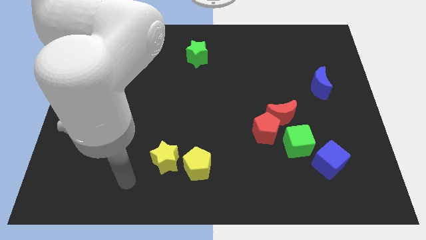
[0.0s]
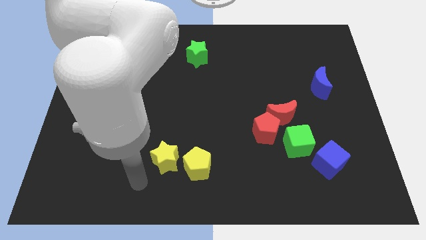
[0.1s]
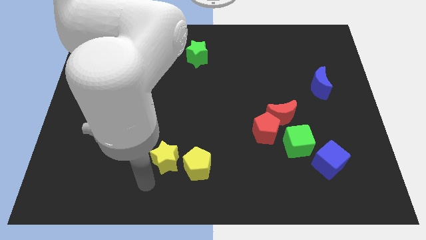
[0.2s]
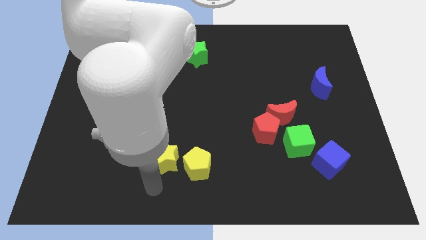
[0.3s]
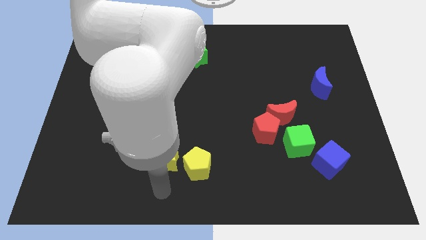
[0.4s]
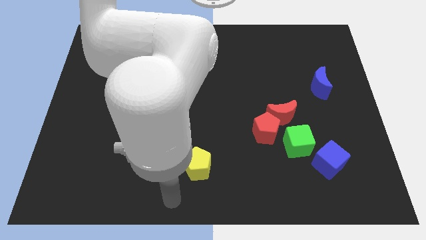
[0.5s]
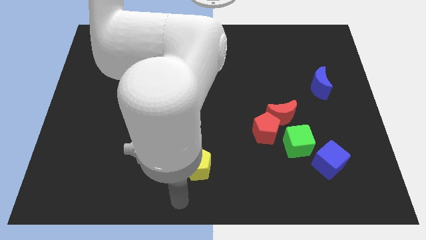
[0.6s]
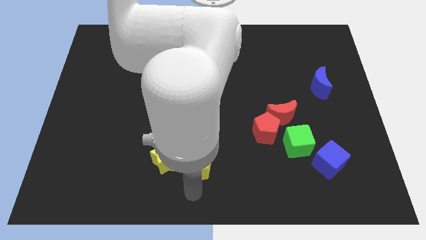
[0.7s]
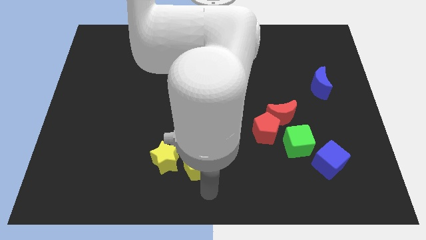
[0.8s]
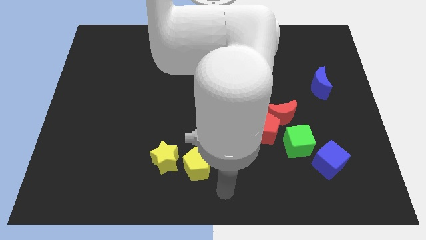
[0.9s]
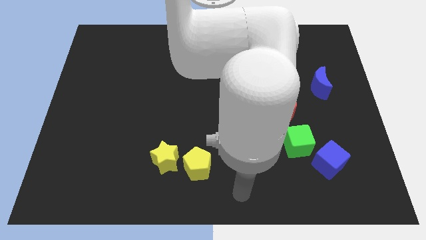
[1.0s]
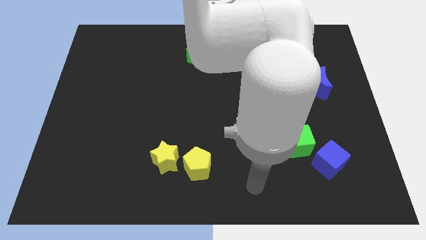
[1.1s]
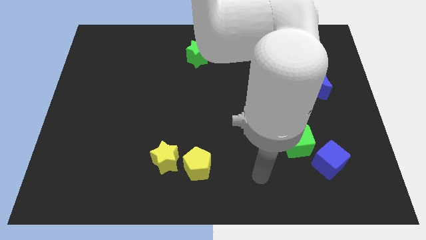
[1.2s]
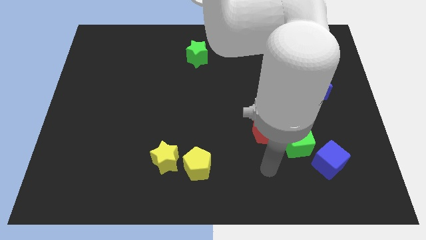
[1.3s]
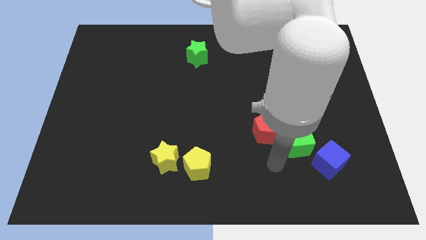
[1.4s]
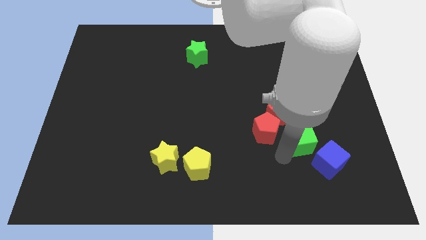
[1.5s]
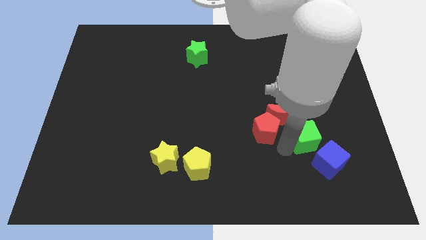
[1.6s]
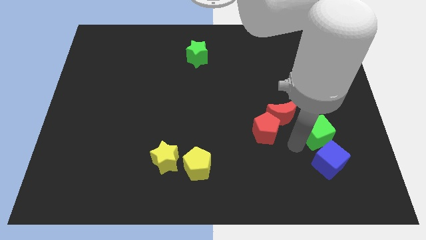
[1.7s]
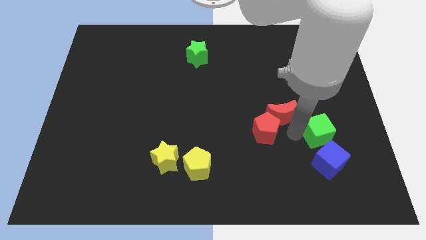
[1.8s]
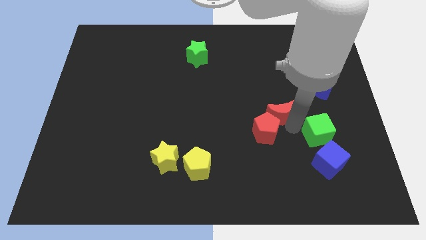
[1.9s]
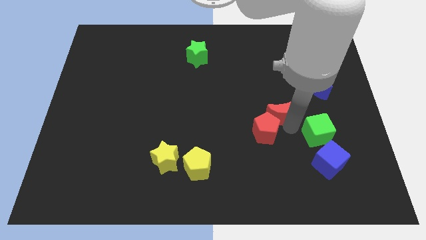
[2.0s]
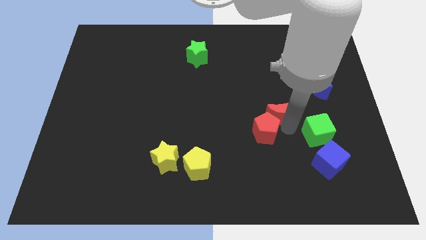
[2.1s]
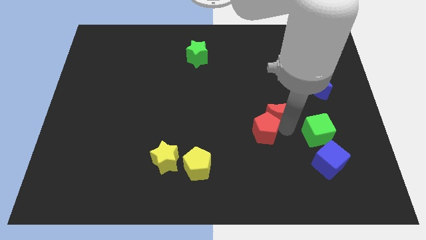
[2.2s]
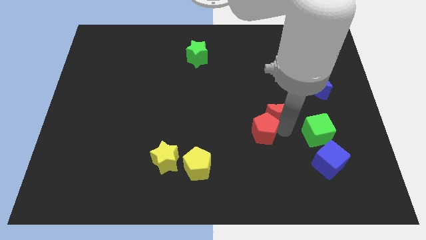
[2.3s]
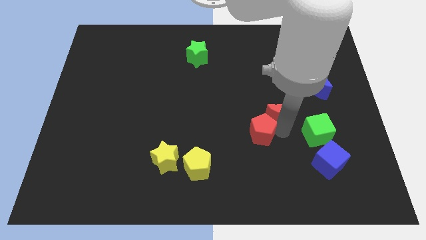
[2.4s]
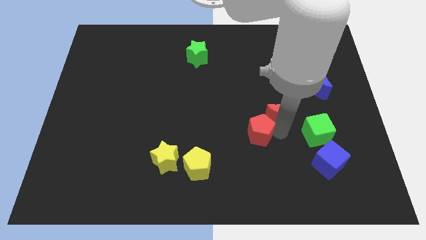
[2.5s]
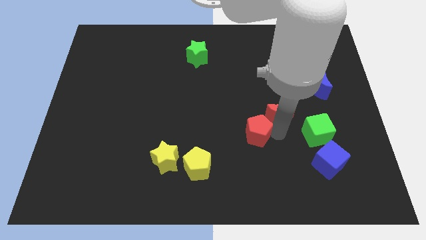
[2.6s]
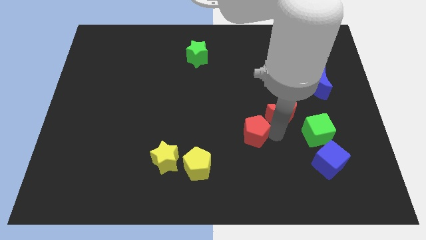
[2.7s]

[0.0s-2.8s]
pull the red pentagon apart from the red moon and green cube

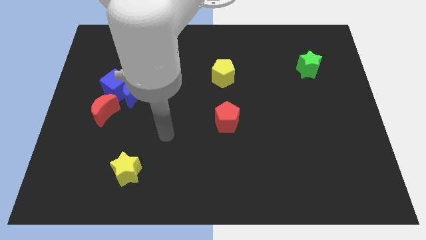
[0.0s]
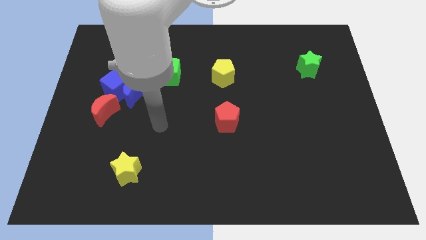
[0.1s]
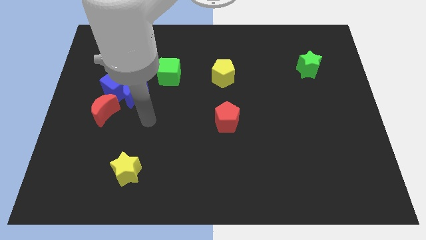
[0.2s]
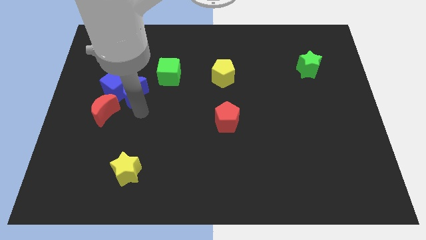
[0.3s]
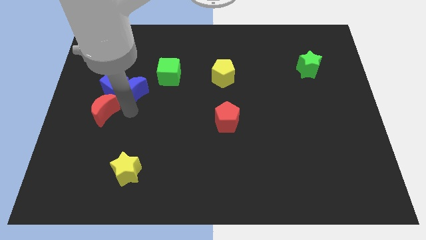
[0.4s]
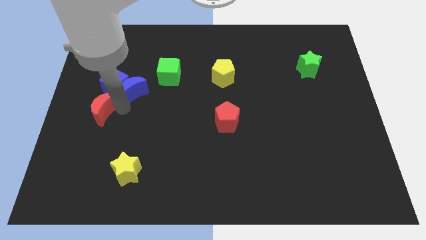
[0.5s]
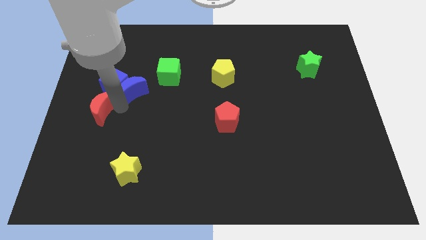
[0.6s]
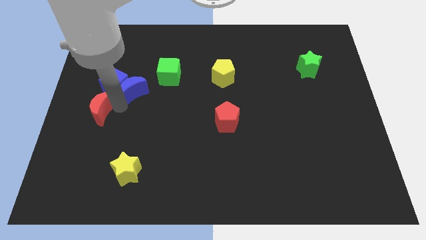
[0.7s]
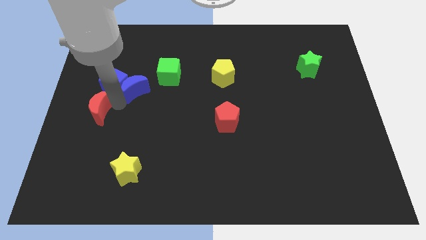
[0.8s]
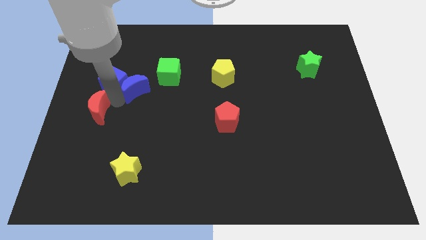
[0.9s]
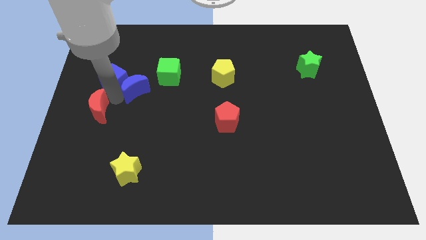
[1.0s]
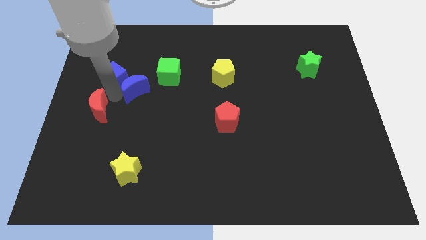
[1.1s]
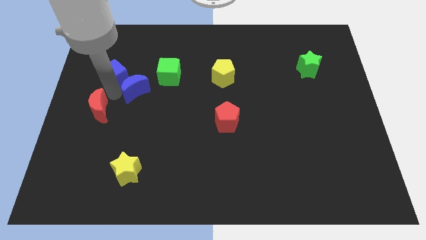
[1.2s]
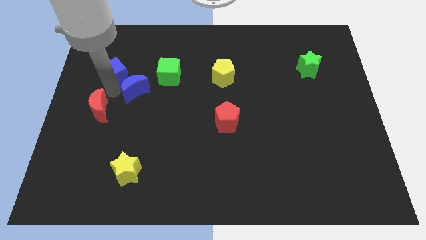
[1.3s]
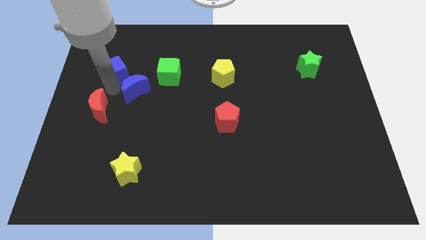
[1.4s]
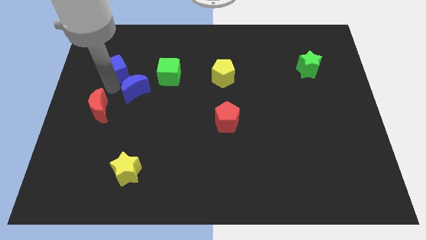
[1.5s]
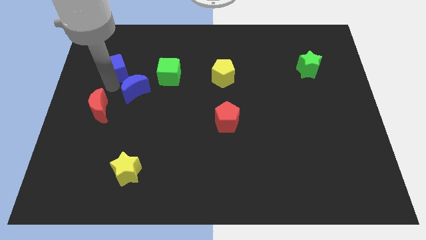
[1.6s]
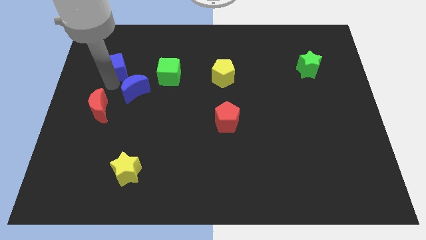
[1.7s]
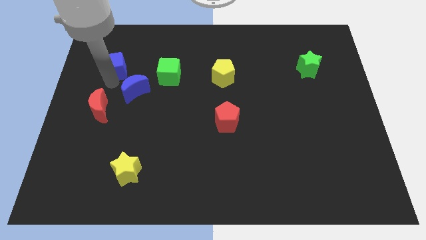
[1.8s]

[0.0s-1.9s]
move the blue cube away from the blue moon and red moon

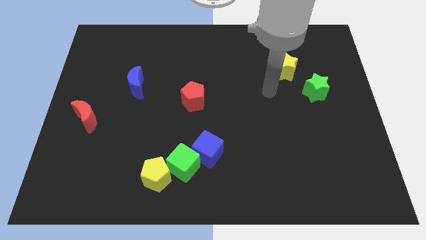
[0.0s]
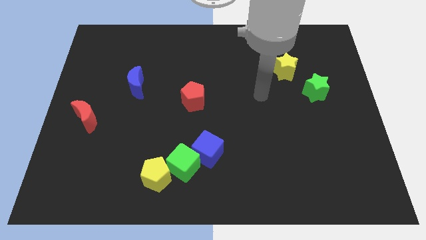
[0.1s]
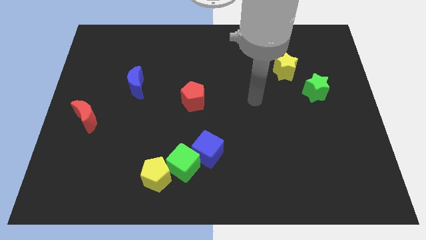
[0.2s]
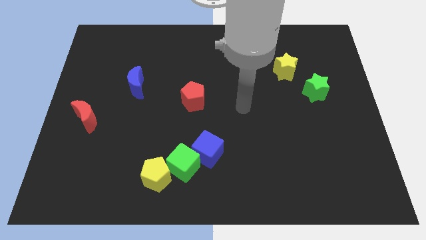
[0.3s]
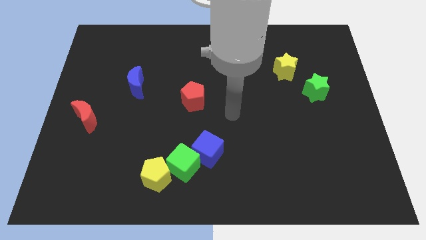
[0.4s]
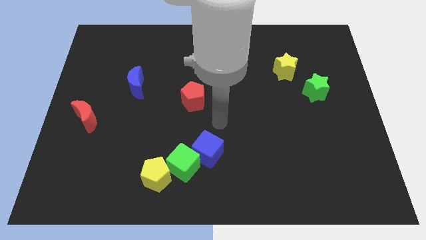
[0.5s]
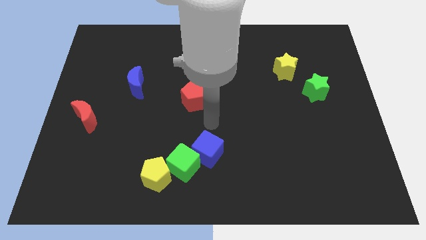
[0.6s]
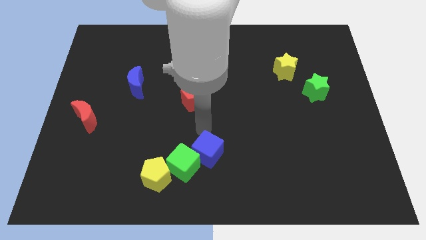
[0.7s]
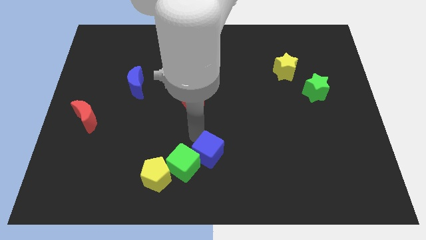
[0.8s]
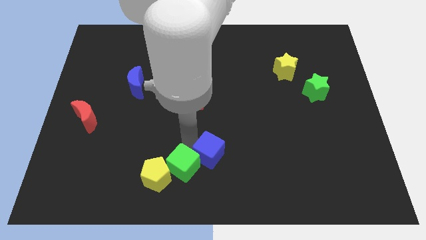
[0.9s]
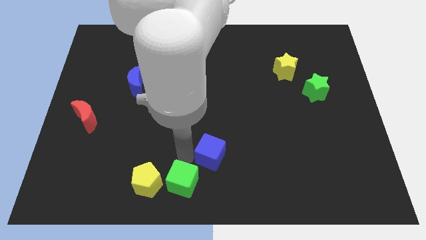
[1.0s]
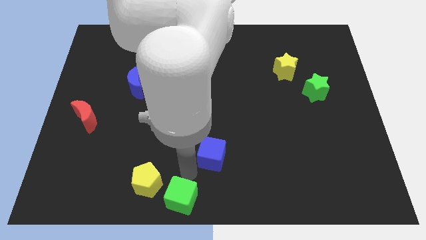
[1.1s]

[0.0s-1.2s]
pull the blue cube apart from the green cube

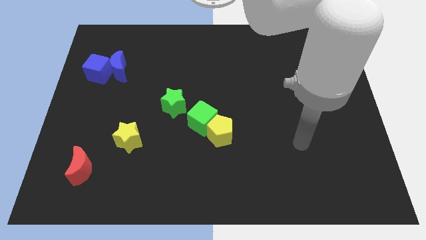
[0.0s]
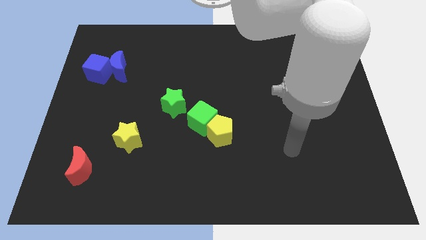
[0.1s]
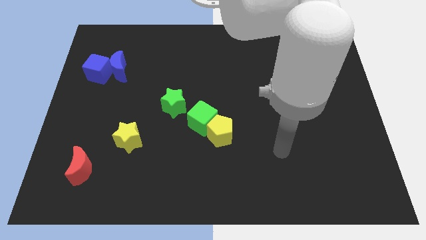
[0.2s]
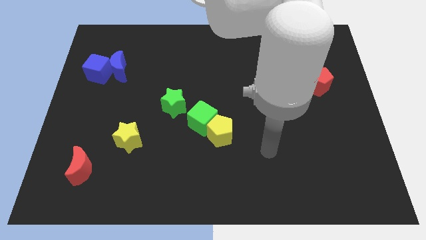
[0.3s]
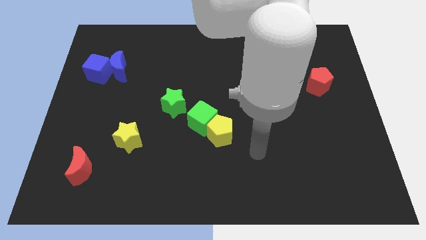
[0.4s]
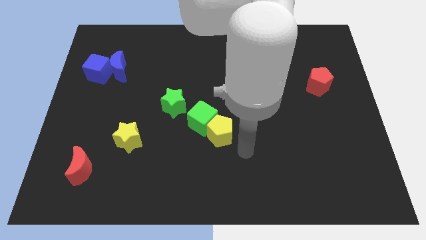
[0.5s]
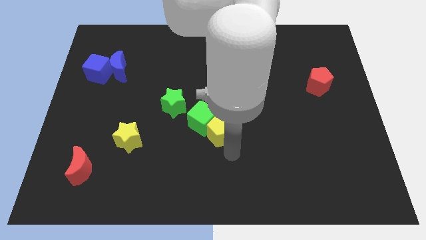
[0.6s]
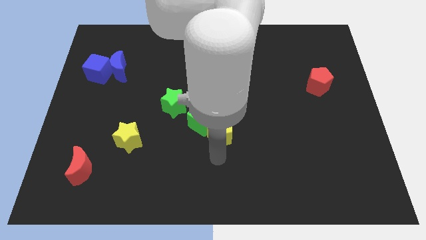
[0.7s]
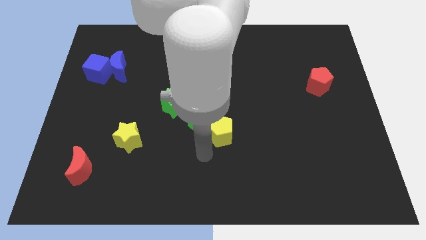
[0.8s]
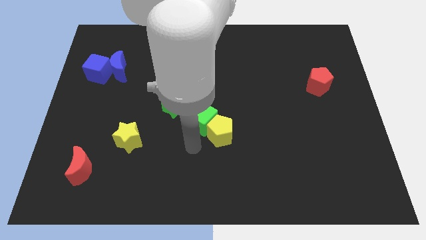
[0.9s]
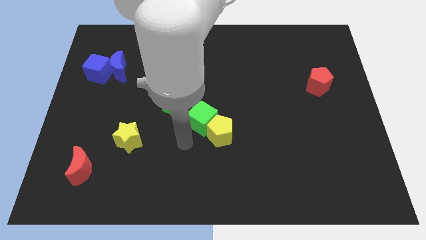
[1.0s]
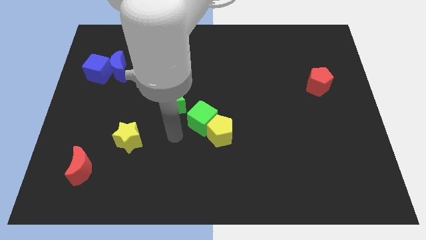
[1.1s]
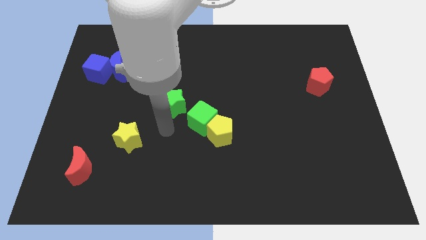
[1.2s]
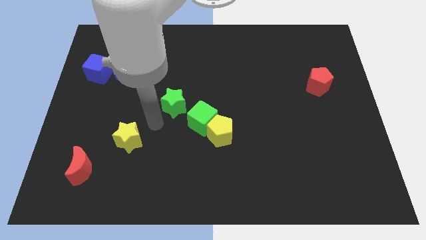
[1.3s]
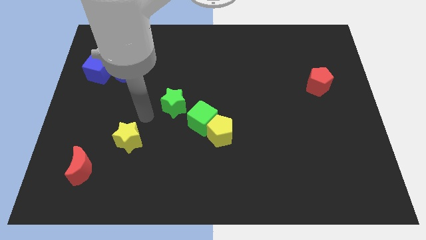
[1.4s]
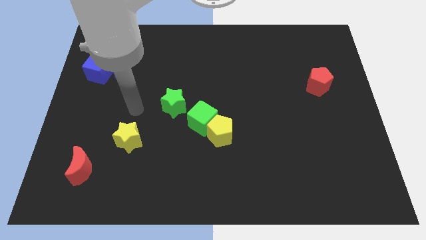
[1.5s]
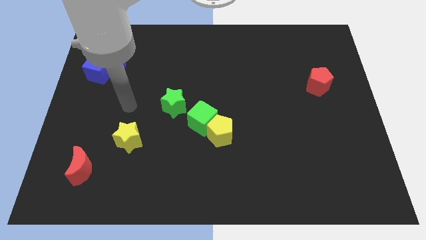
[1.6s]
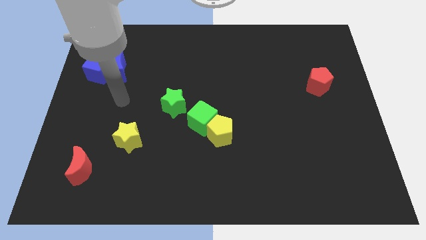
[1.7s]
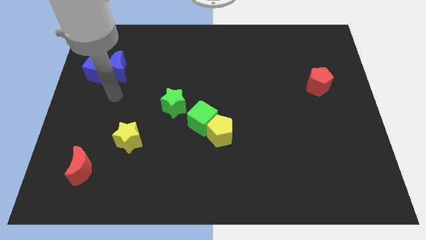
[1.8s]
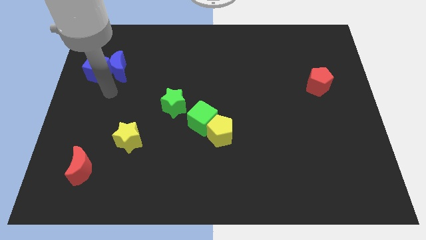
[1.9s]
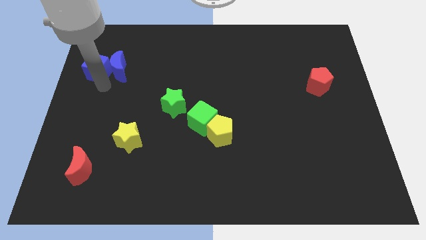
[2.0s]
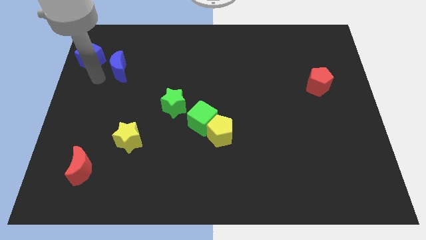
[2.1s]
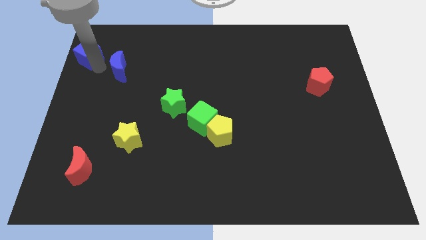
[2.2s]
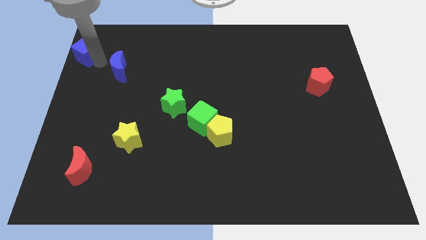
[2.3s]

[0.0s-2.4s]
separate the blue moon from the blue cube

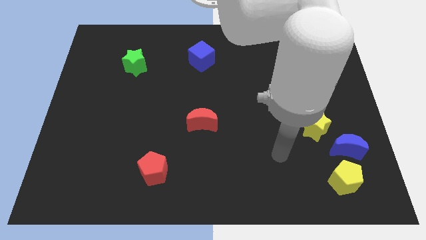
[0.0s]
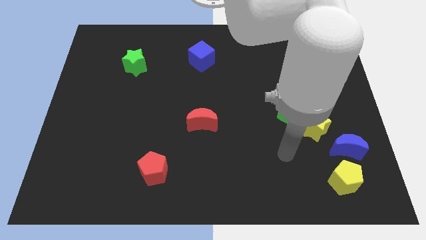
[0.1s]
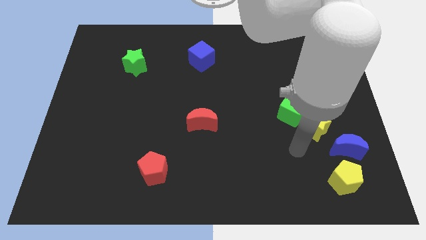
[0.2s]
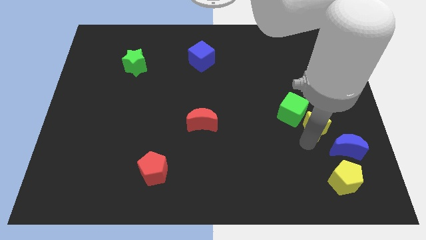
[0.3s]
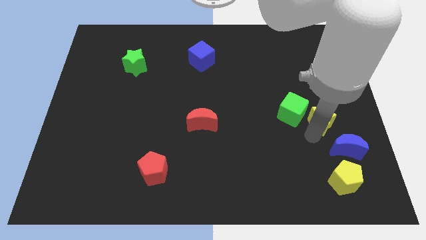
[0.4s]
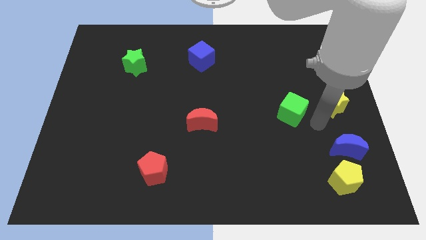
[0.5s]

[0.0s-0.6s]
move the green cube away from the yellow star

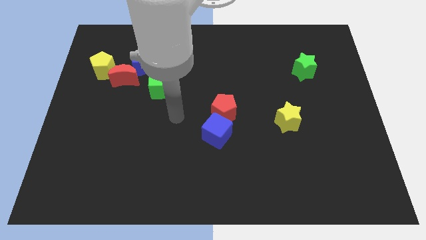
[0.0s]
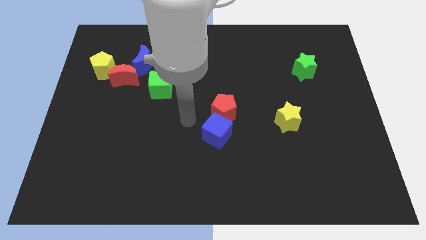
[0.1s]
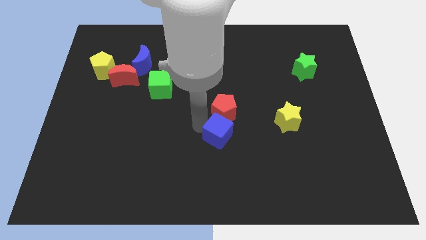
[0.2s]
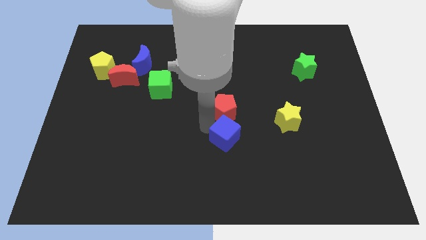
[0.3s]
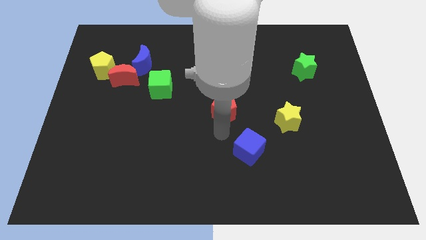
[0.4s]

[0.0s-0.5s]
separate the red pentagon from the blue cube
